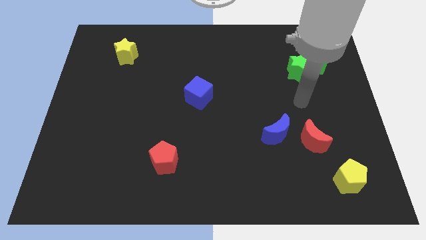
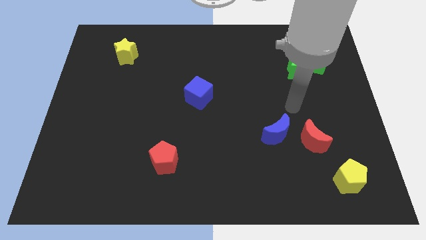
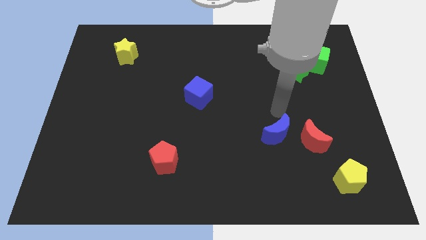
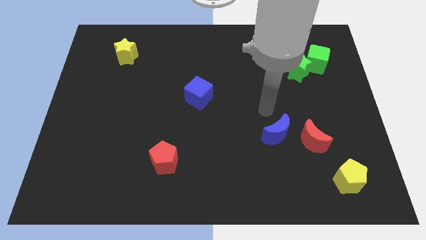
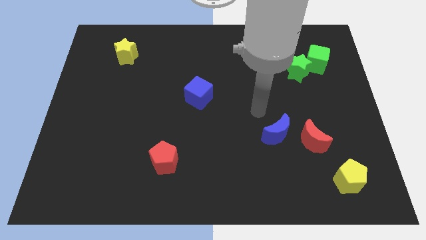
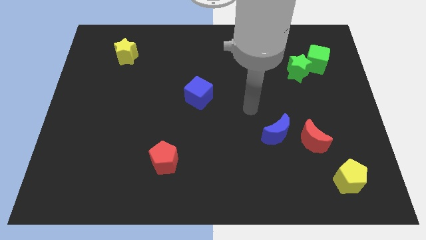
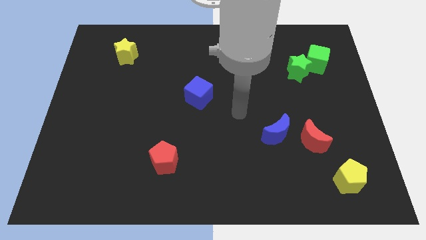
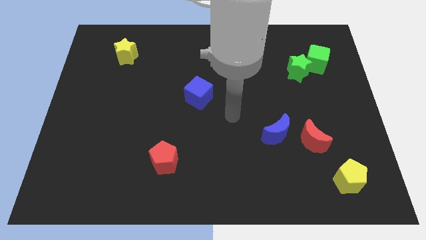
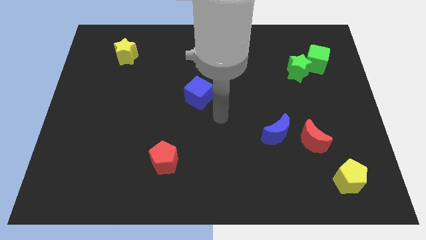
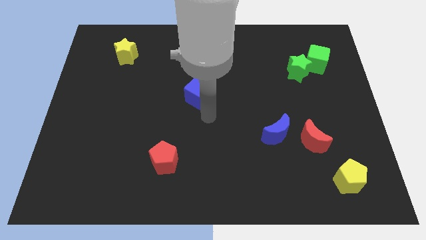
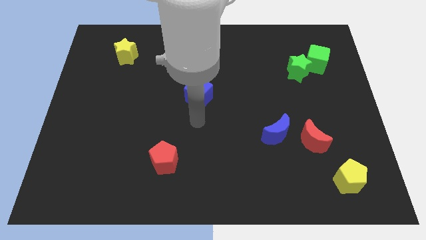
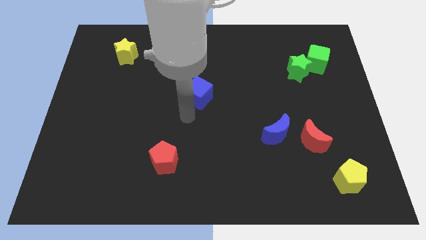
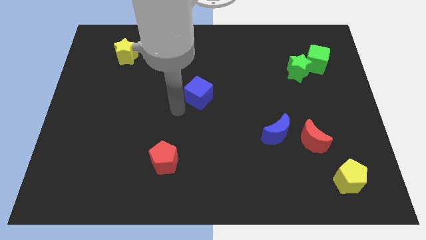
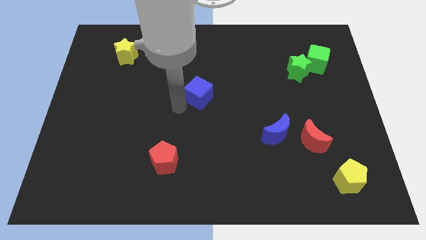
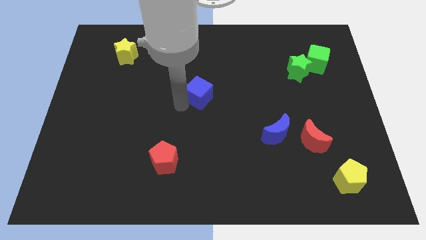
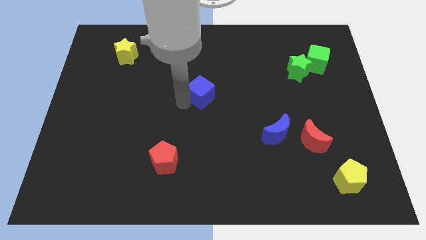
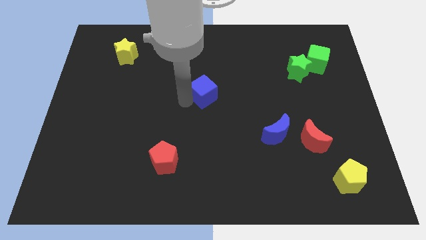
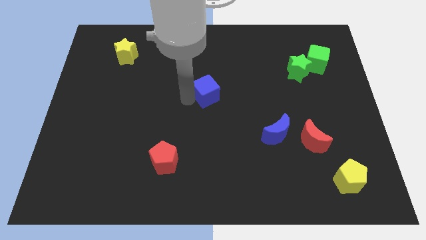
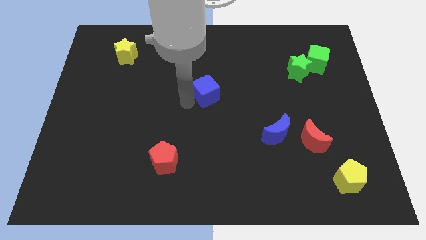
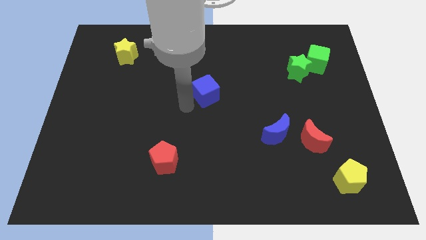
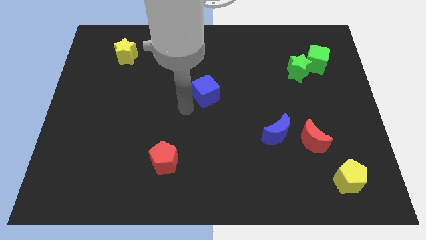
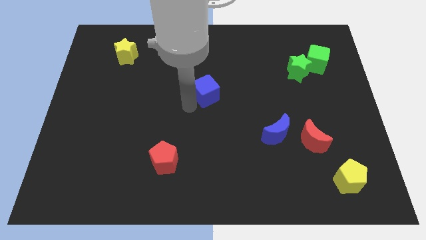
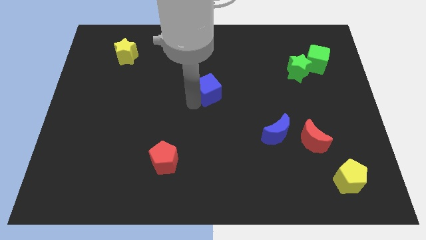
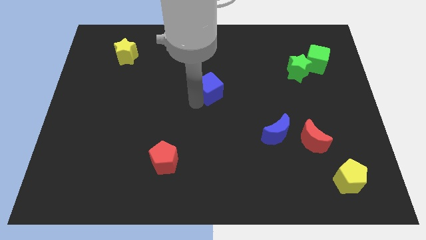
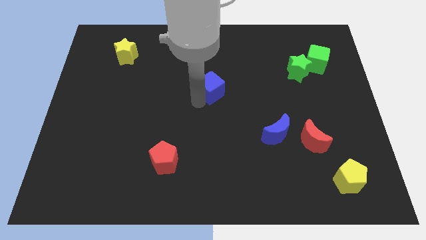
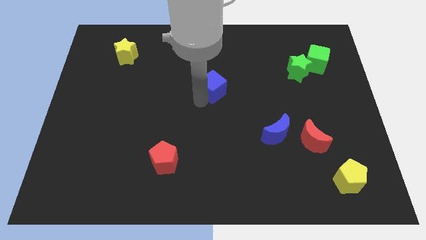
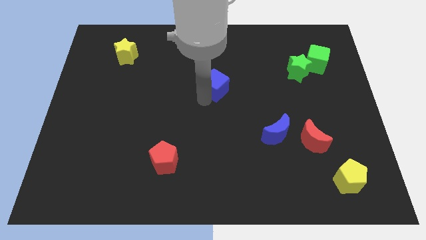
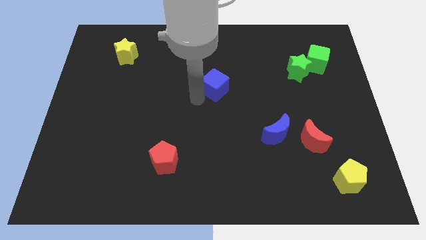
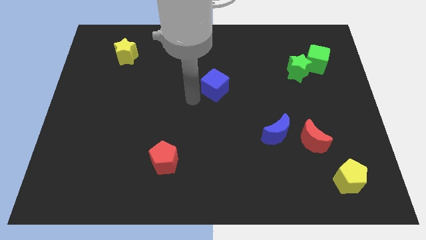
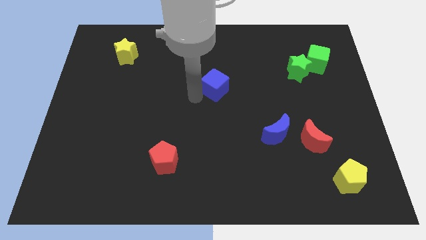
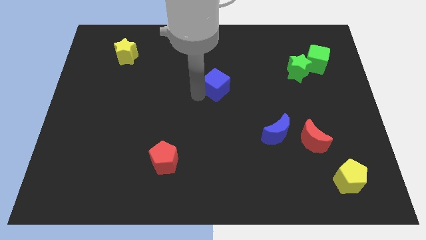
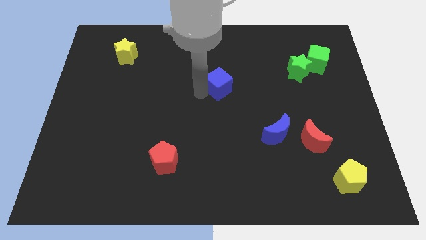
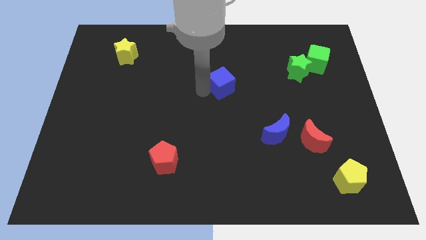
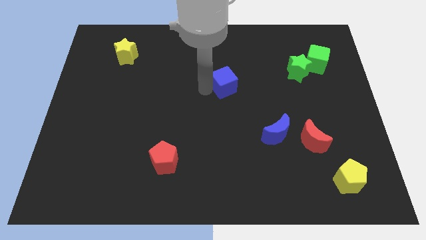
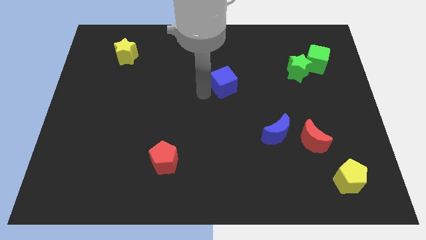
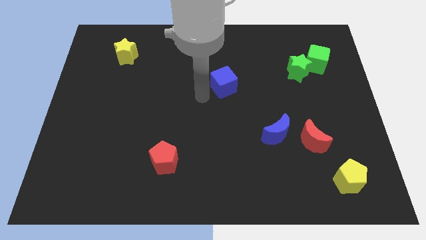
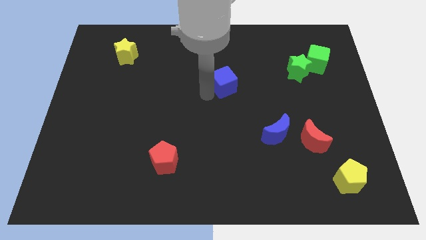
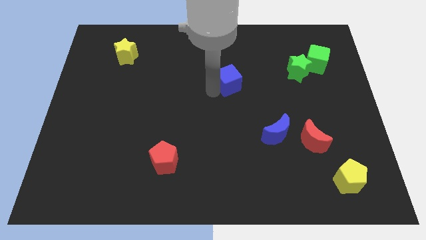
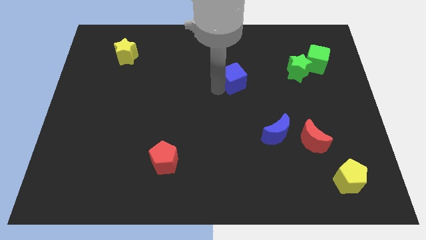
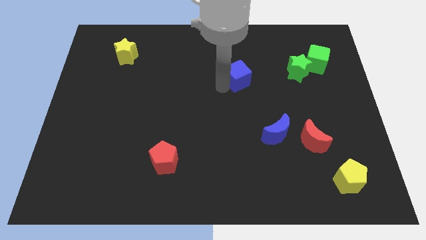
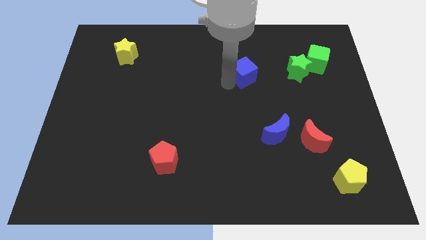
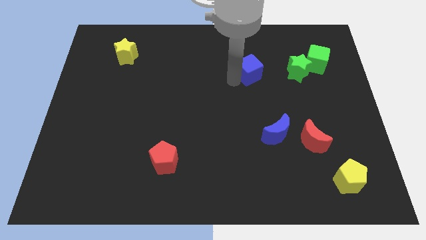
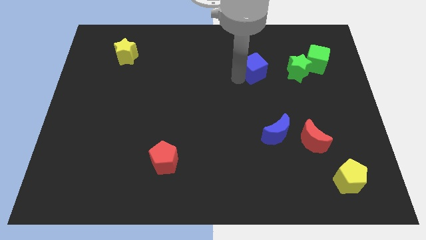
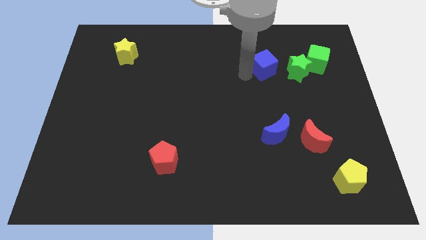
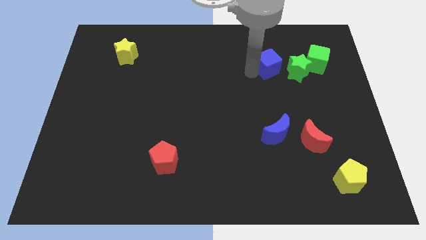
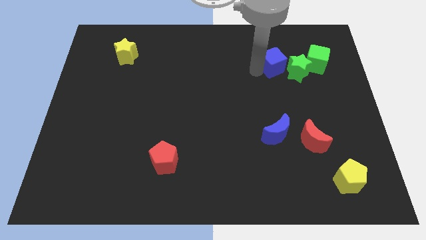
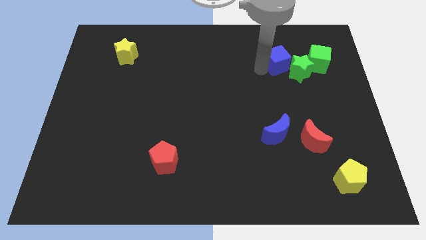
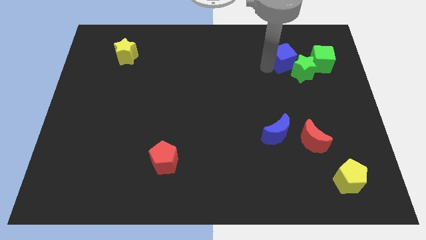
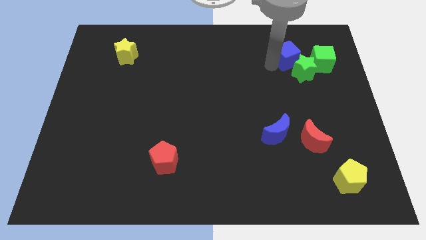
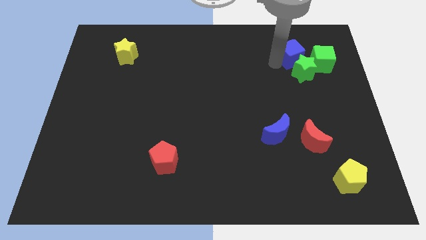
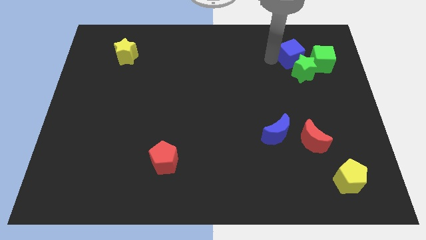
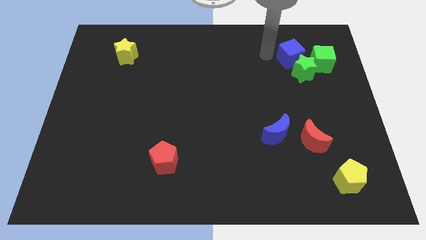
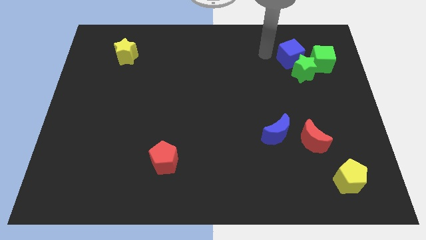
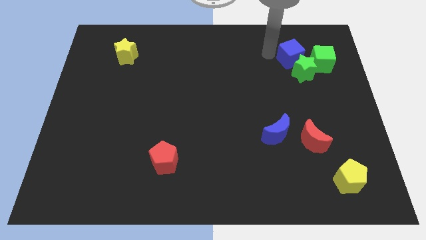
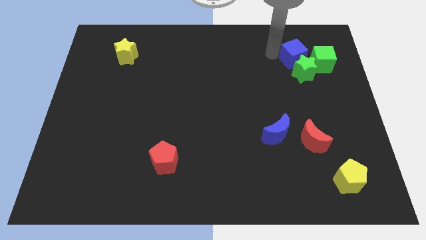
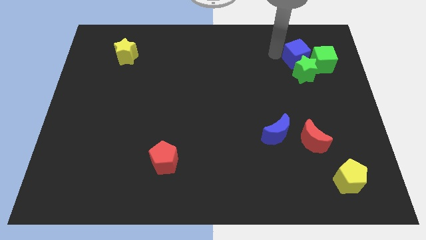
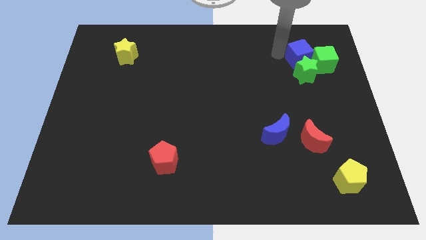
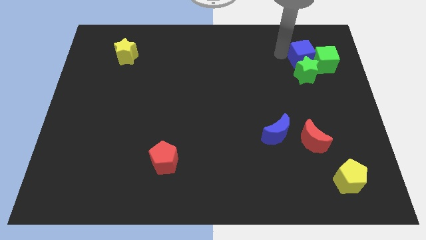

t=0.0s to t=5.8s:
put the blue cube next to the green cube

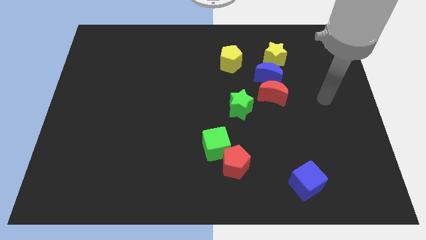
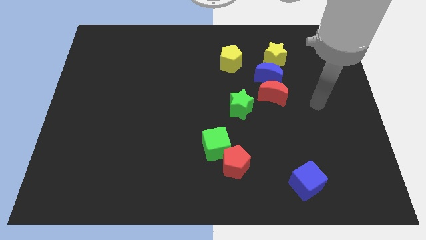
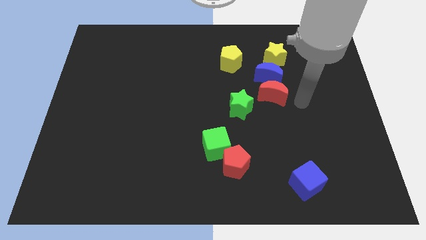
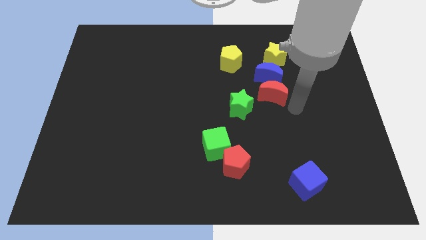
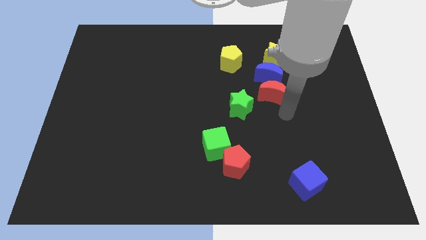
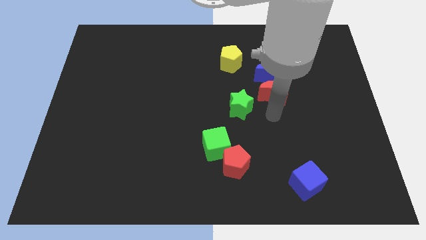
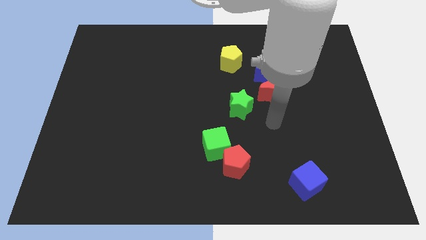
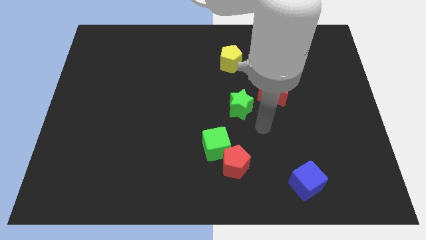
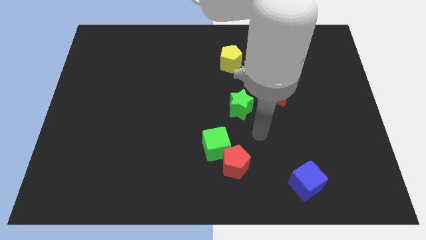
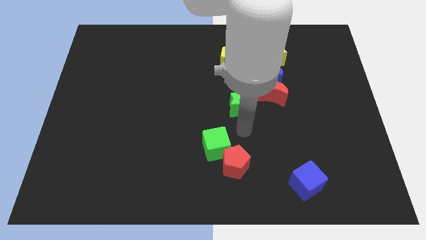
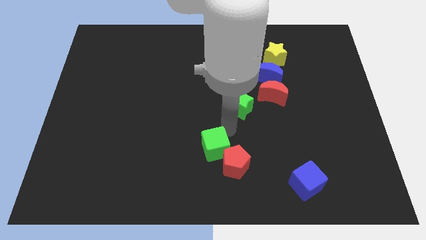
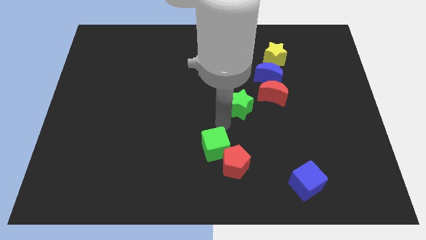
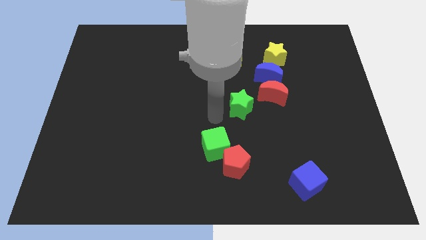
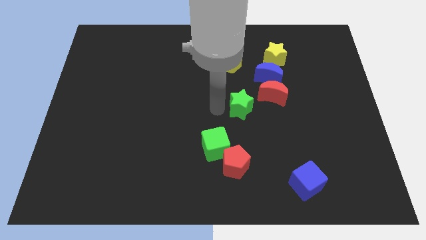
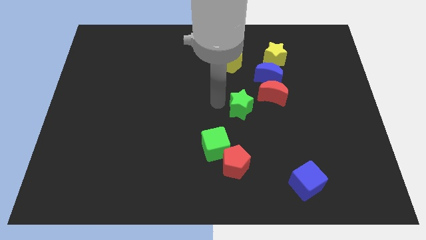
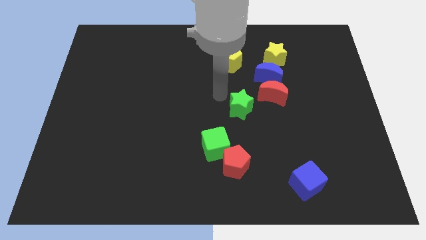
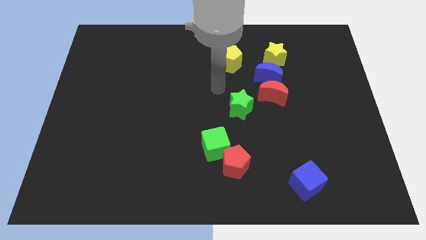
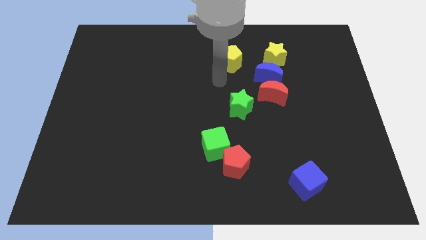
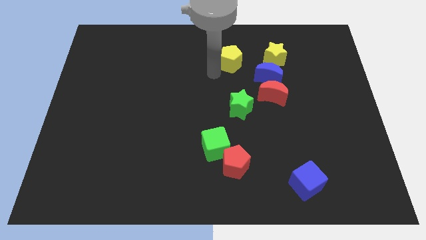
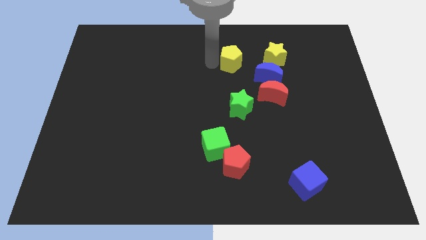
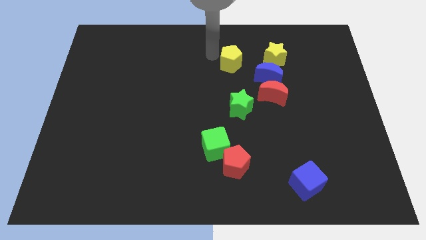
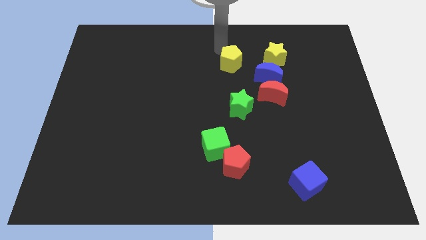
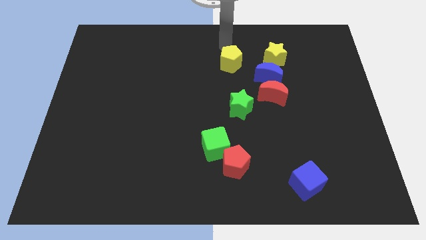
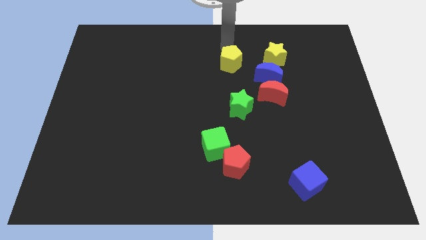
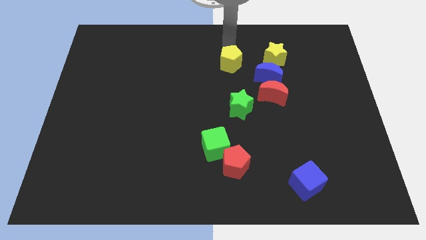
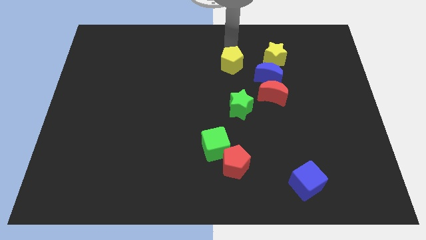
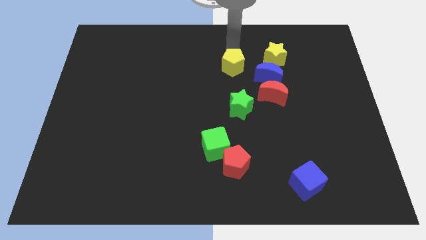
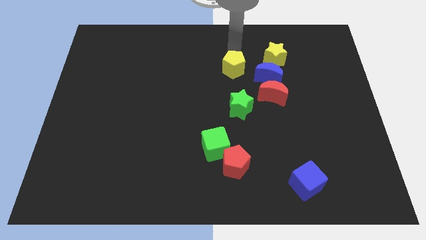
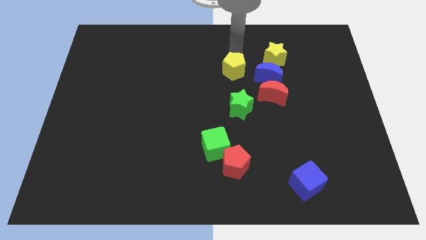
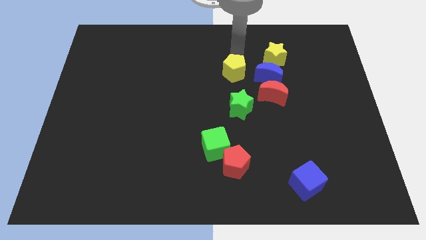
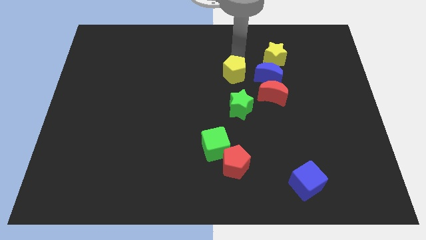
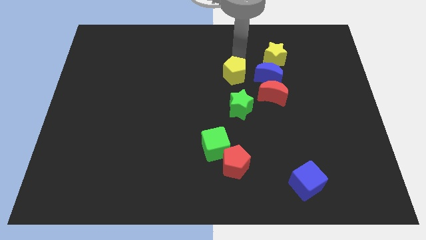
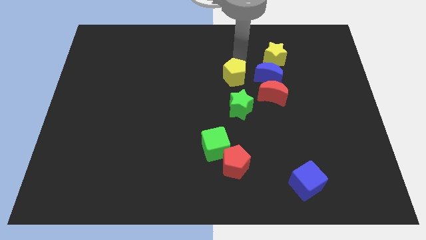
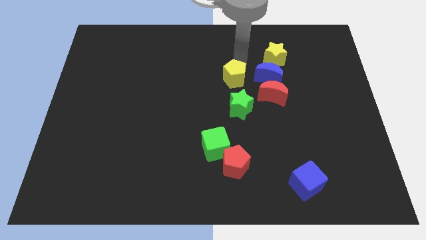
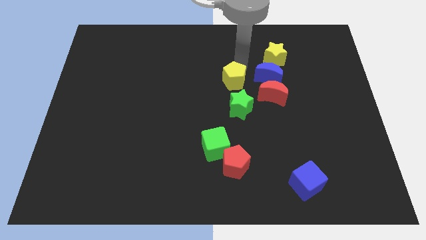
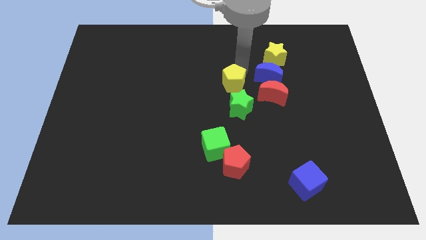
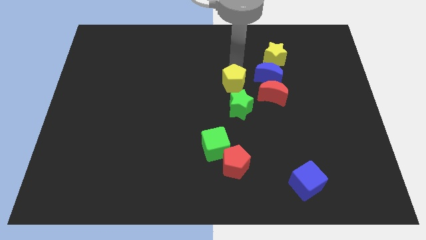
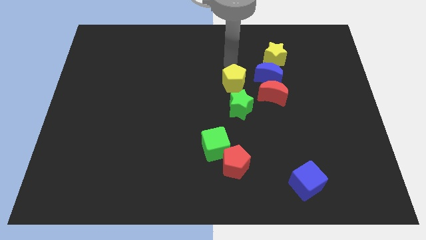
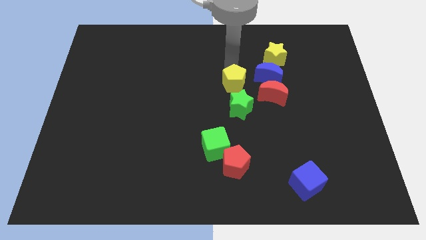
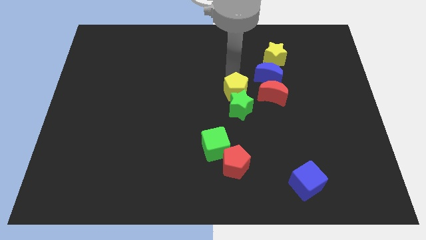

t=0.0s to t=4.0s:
slide the yellow pentagon close to the green star
